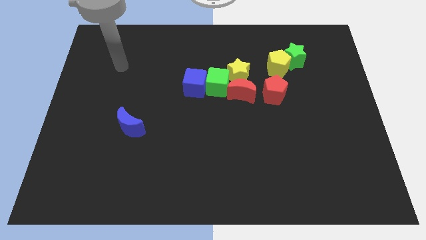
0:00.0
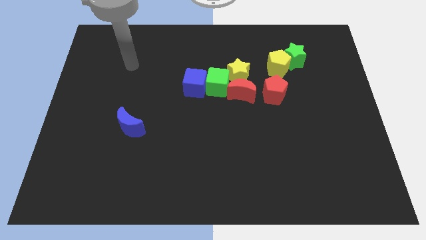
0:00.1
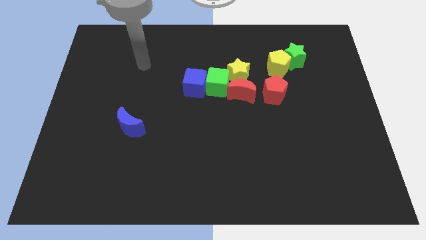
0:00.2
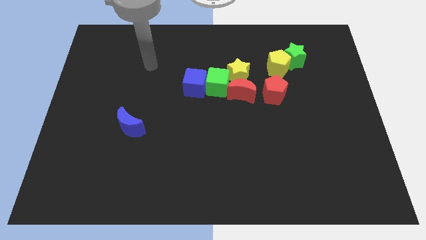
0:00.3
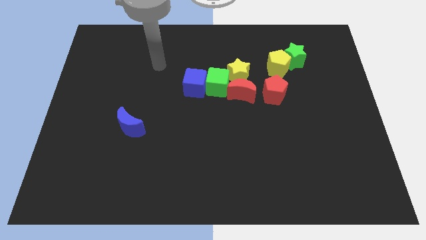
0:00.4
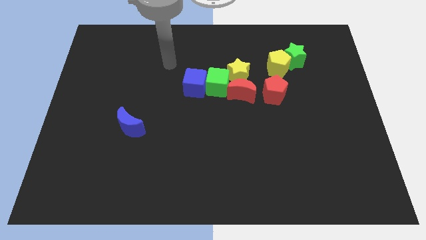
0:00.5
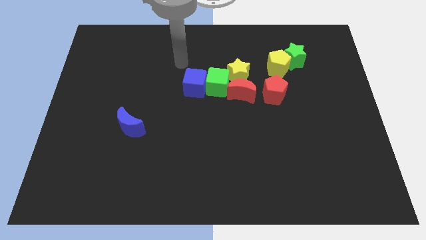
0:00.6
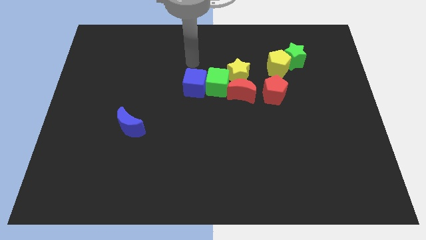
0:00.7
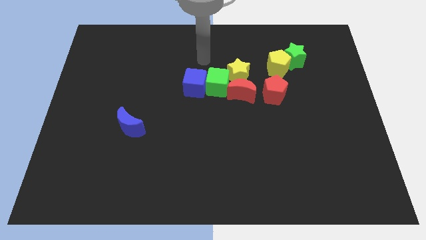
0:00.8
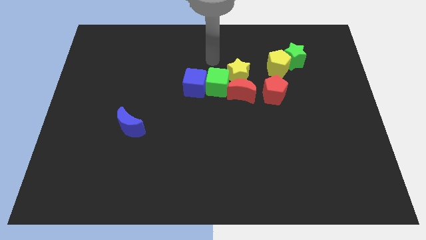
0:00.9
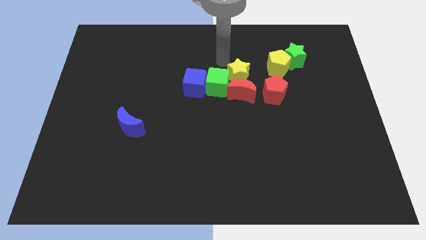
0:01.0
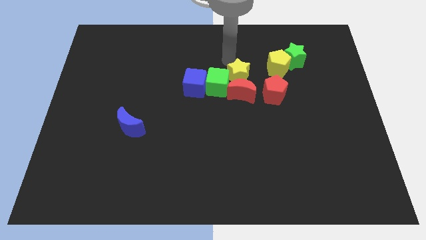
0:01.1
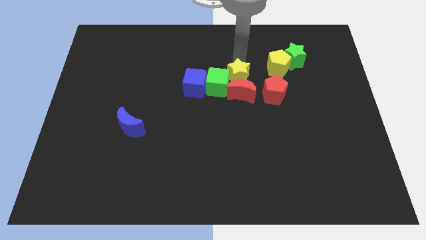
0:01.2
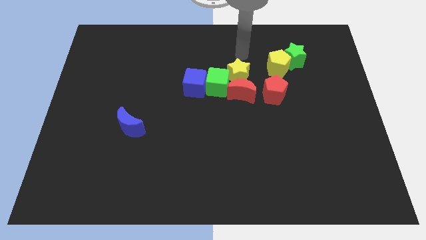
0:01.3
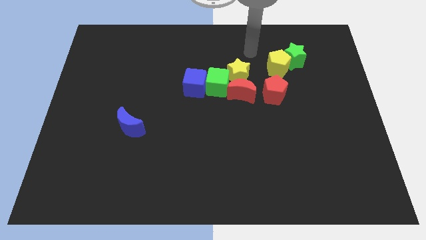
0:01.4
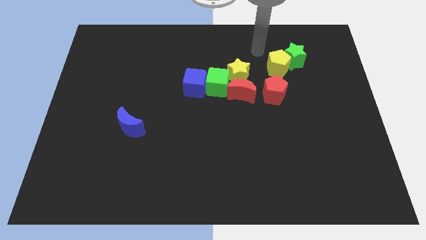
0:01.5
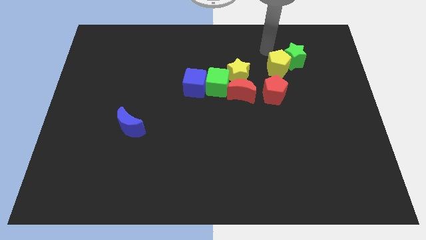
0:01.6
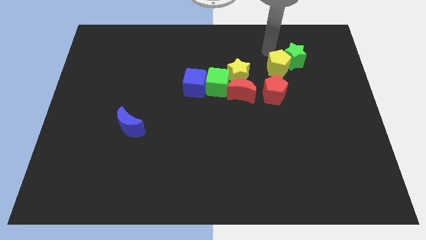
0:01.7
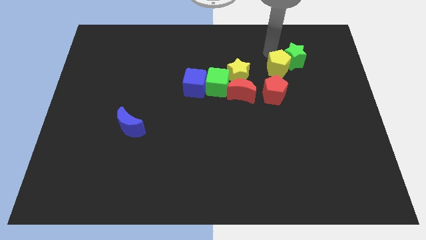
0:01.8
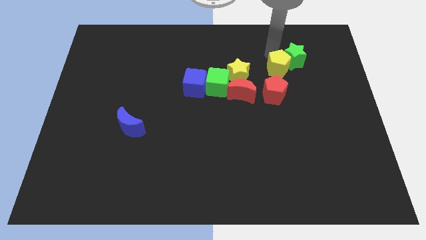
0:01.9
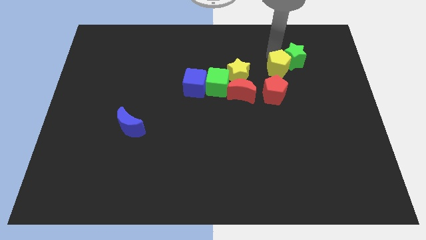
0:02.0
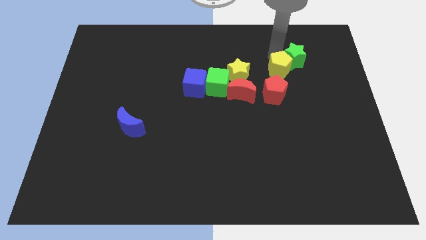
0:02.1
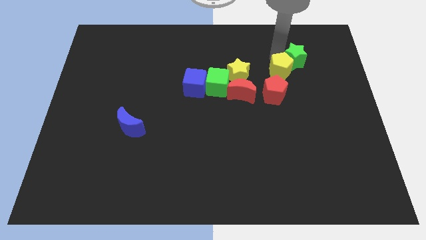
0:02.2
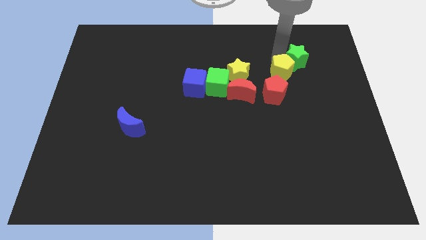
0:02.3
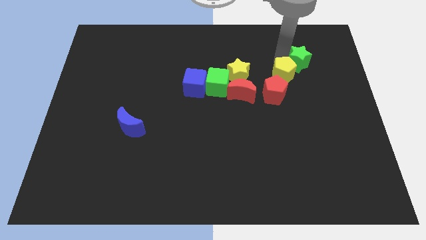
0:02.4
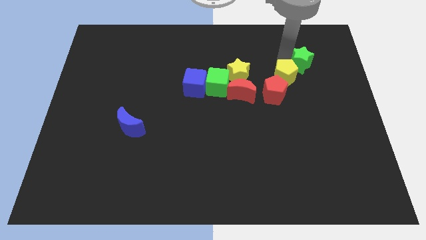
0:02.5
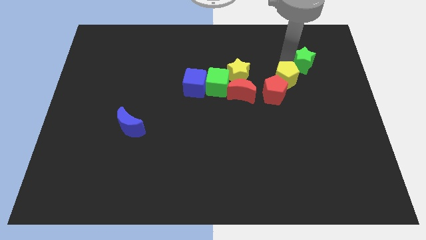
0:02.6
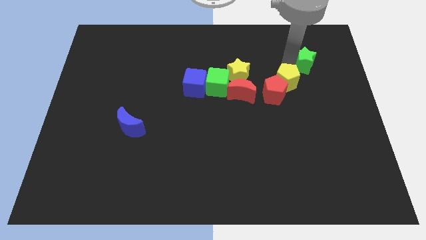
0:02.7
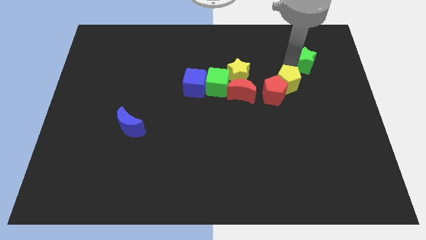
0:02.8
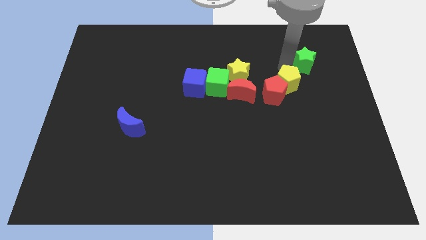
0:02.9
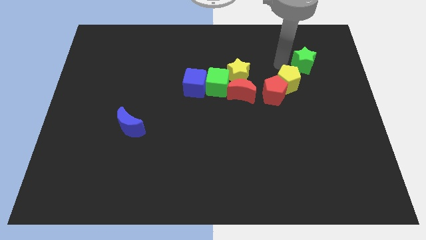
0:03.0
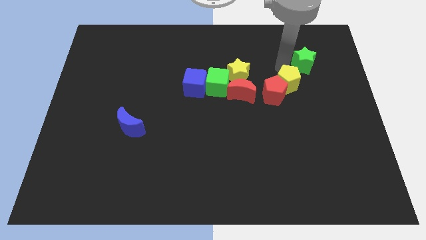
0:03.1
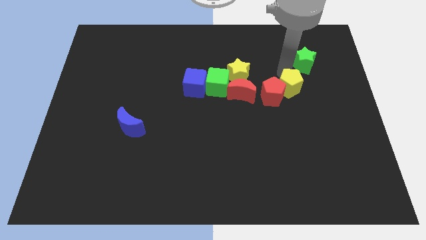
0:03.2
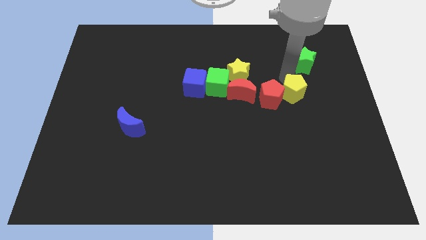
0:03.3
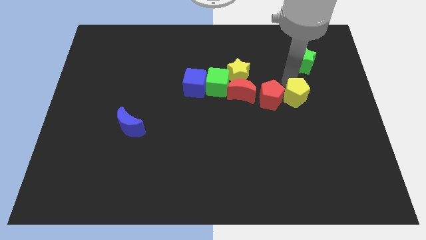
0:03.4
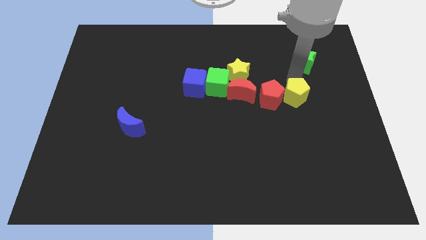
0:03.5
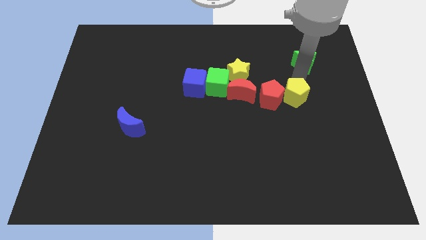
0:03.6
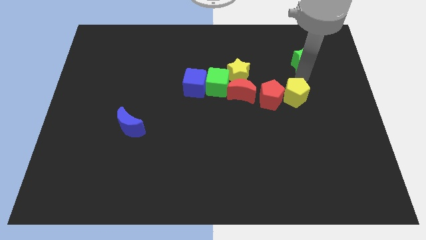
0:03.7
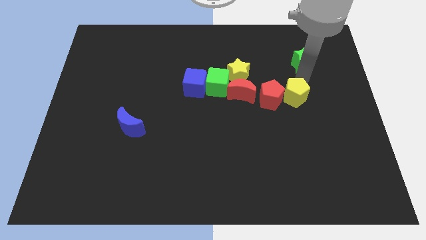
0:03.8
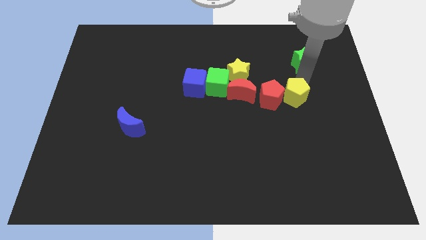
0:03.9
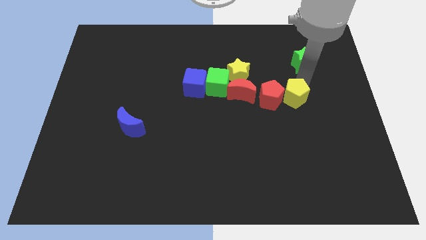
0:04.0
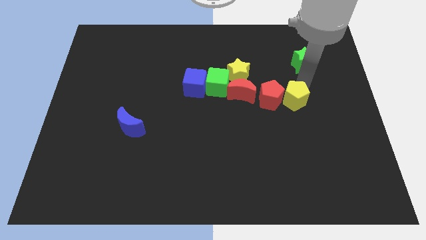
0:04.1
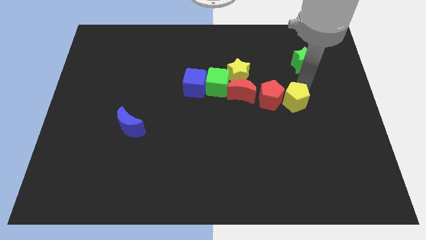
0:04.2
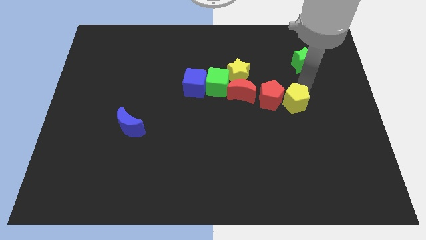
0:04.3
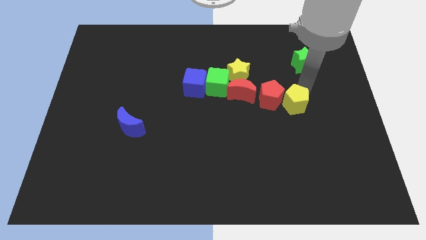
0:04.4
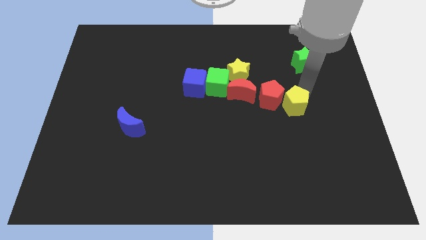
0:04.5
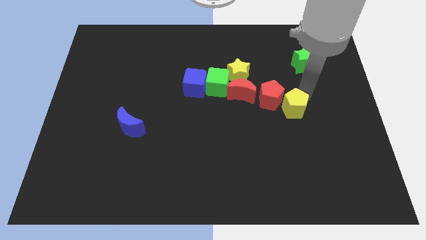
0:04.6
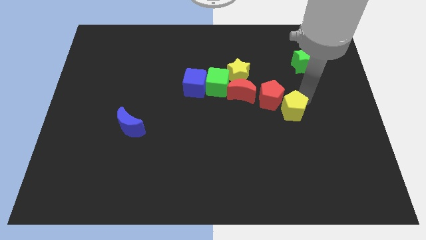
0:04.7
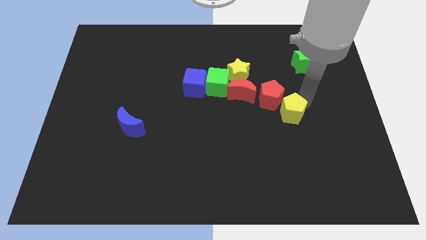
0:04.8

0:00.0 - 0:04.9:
move the yellow pentagon to the bottom of the red pentagon

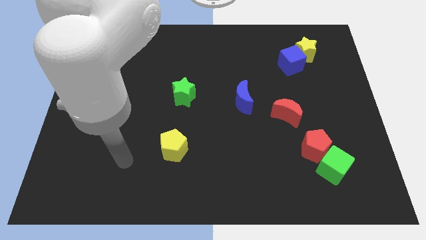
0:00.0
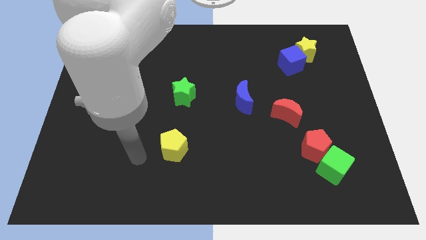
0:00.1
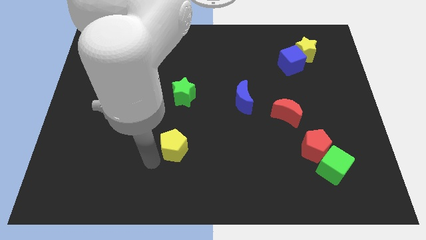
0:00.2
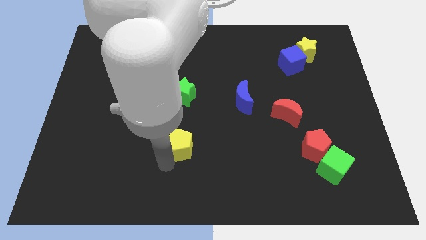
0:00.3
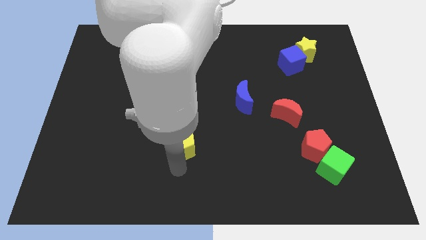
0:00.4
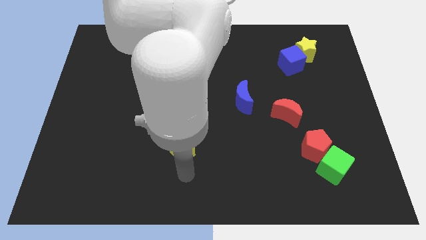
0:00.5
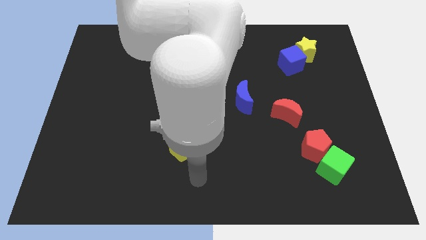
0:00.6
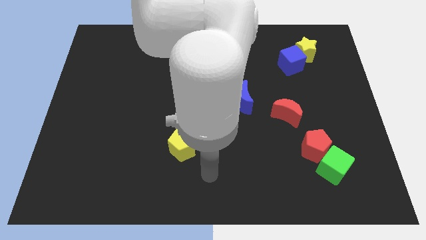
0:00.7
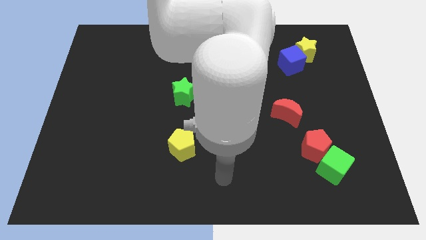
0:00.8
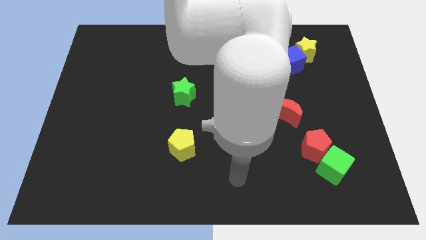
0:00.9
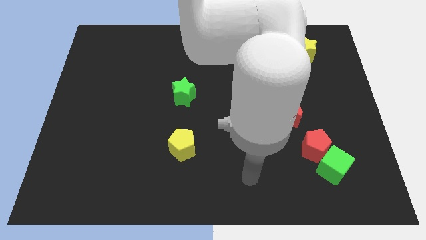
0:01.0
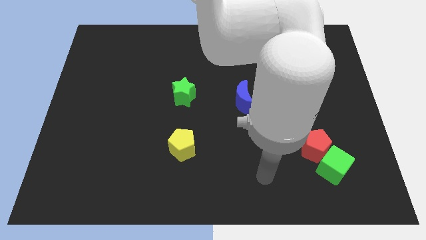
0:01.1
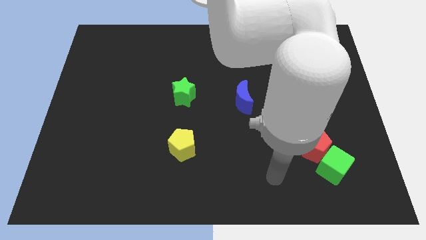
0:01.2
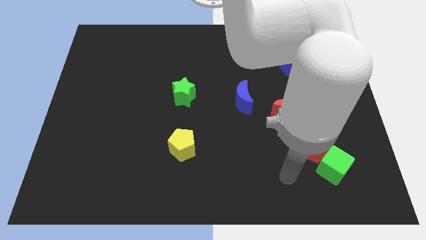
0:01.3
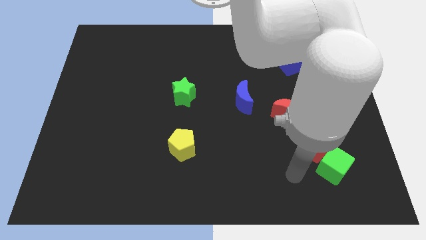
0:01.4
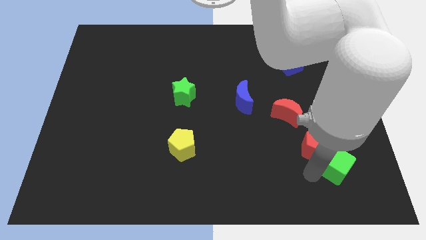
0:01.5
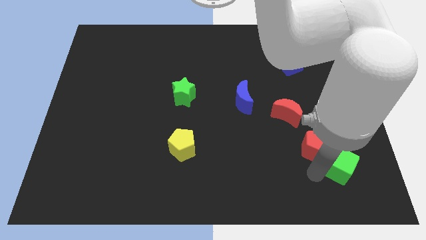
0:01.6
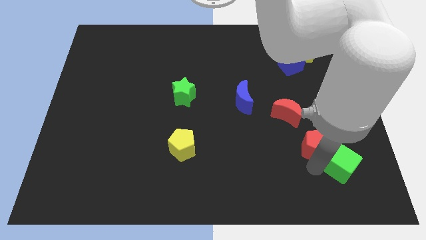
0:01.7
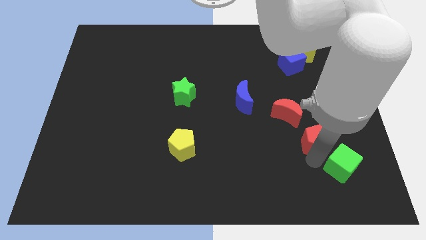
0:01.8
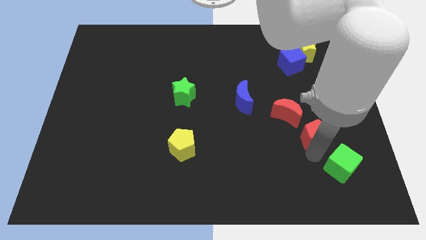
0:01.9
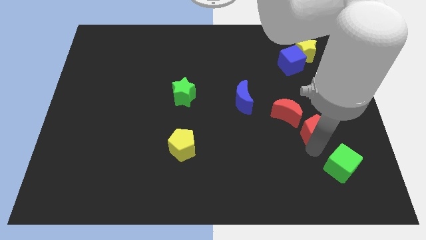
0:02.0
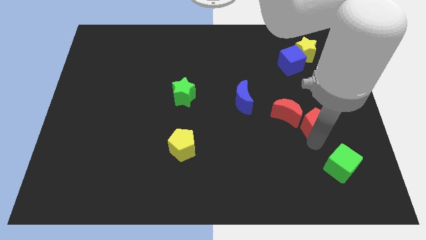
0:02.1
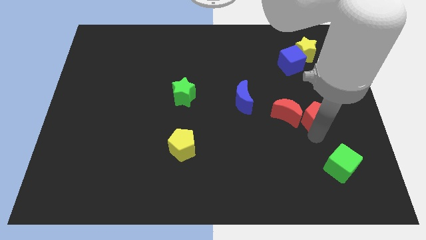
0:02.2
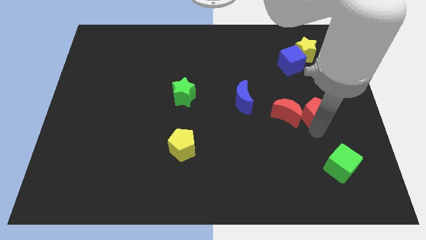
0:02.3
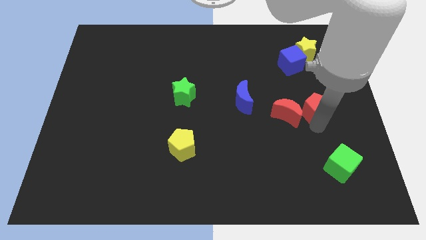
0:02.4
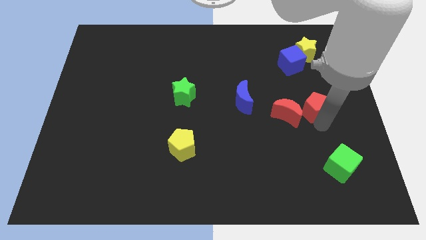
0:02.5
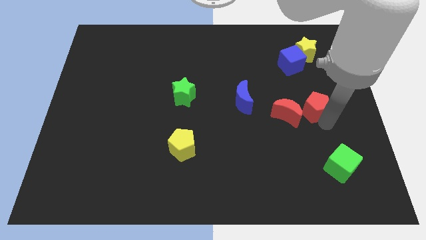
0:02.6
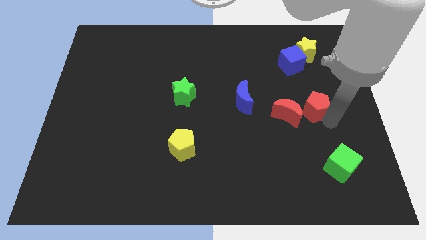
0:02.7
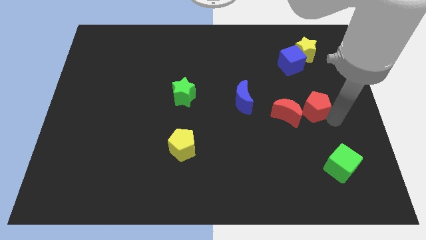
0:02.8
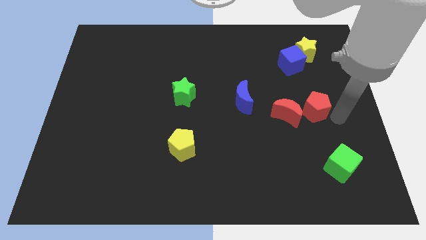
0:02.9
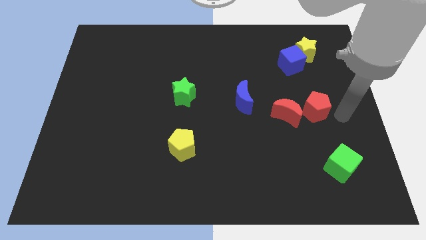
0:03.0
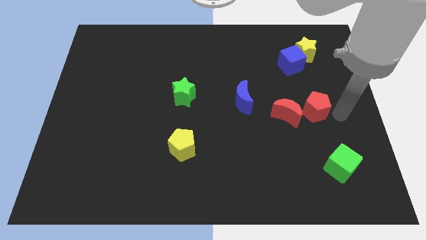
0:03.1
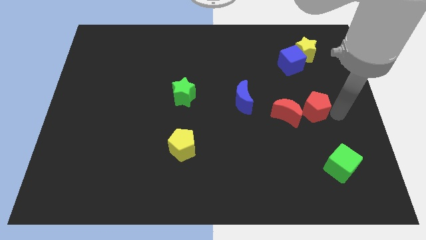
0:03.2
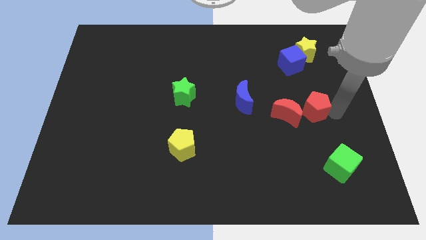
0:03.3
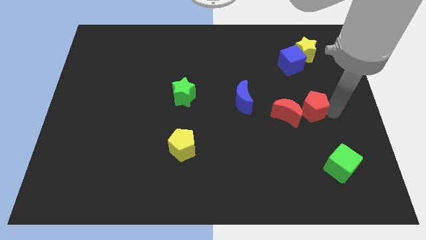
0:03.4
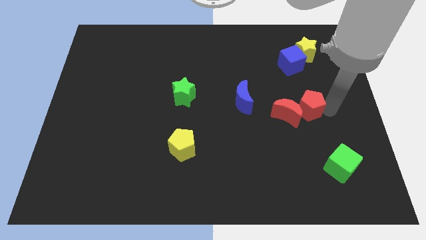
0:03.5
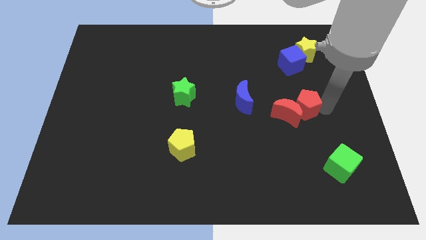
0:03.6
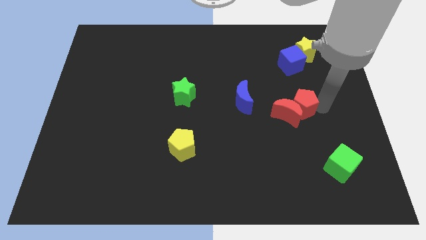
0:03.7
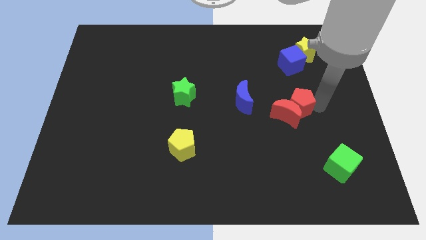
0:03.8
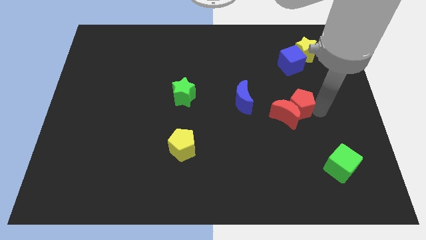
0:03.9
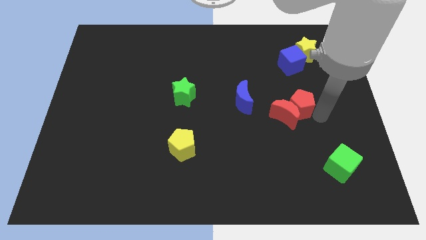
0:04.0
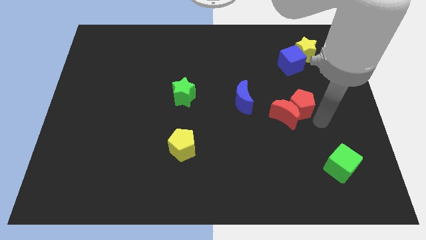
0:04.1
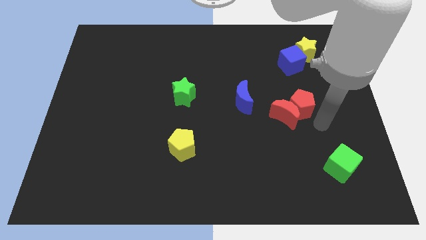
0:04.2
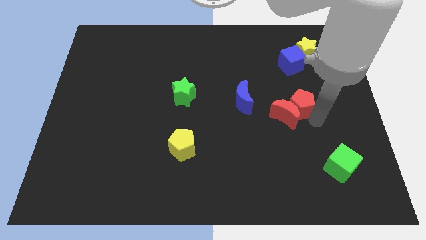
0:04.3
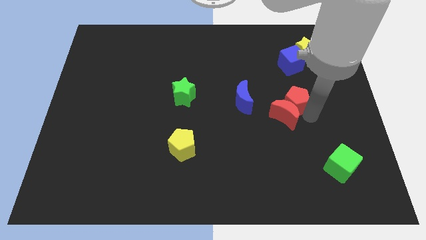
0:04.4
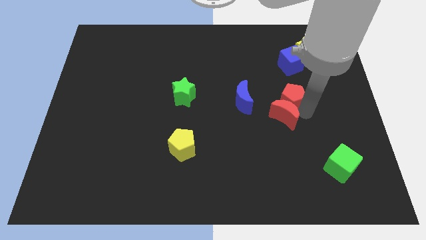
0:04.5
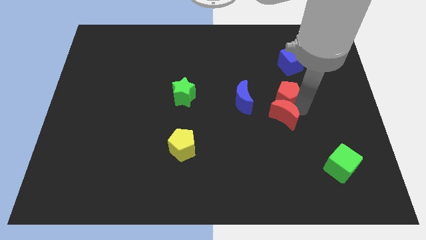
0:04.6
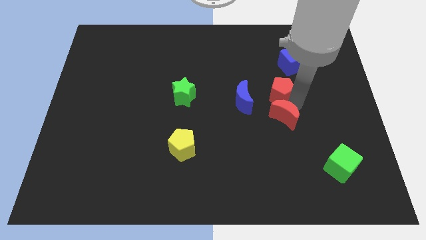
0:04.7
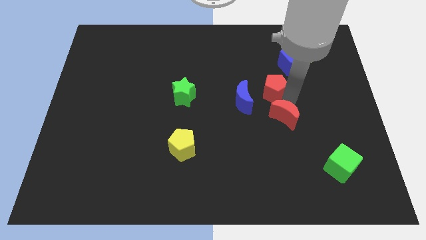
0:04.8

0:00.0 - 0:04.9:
move the red pentagon to the top right side of the blue moon
